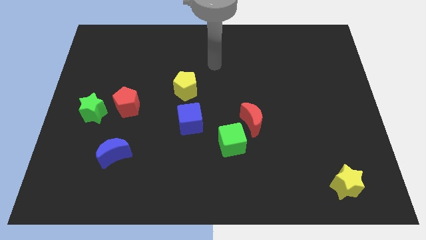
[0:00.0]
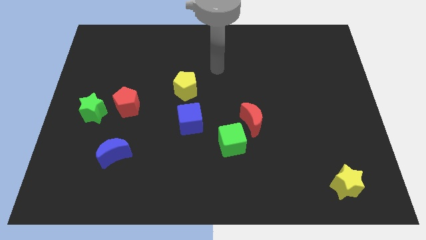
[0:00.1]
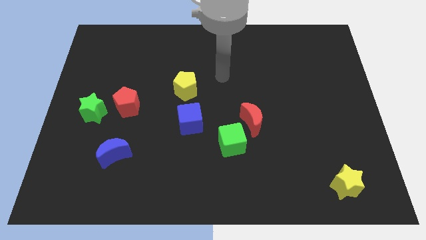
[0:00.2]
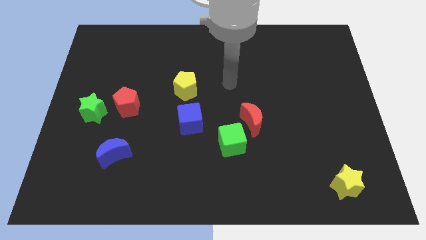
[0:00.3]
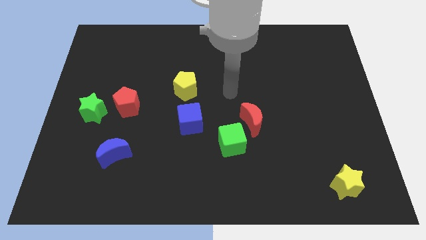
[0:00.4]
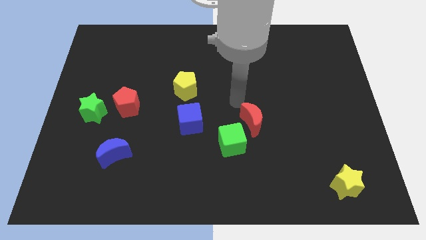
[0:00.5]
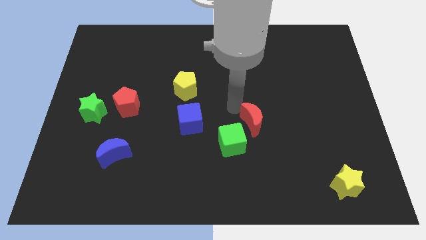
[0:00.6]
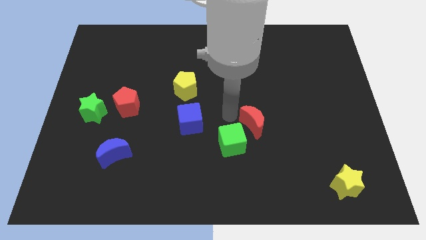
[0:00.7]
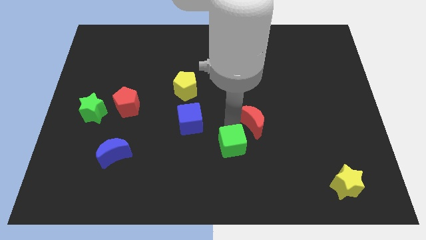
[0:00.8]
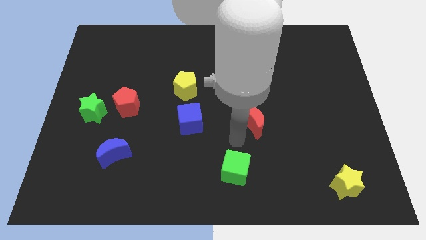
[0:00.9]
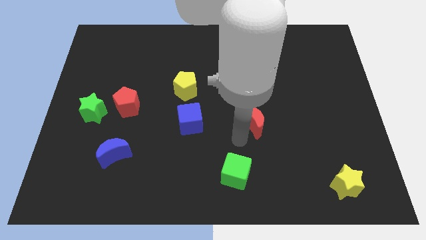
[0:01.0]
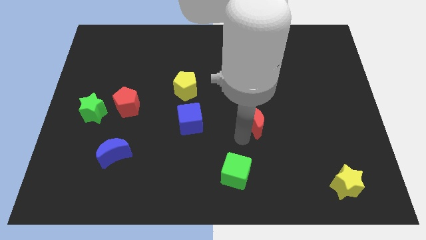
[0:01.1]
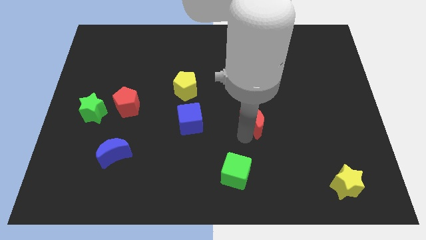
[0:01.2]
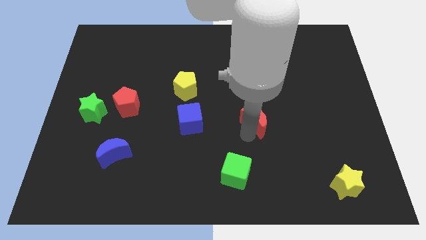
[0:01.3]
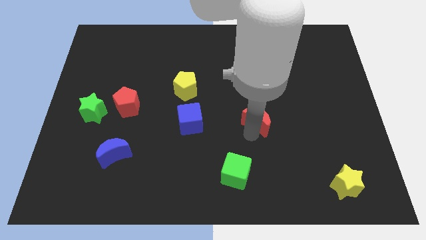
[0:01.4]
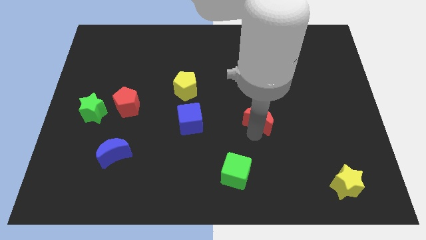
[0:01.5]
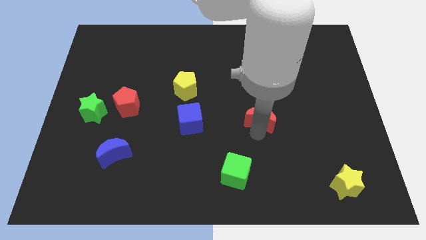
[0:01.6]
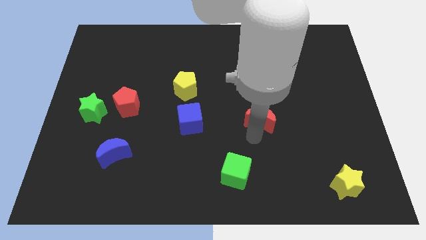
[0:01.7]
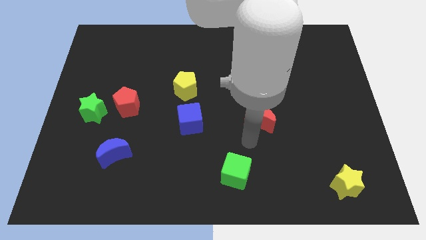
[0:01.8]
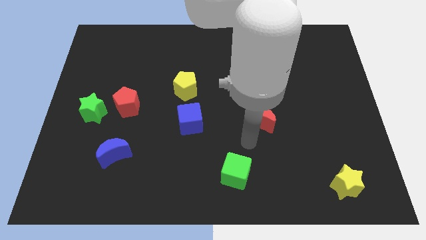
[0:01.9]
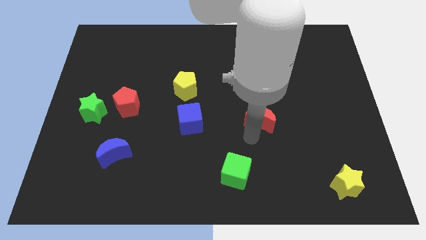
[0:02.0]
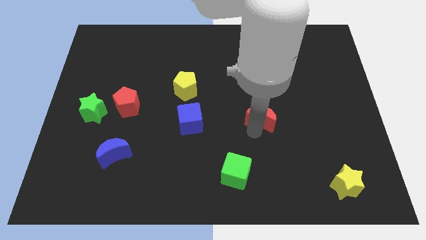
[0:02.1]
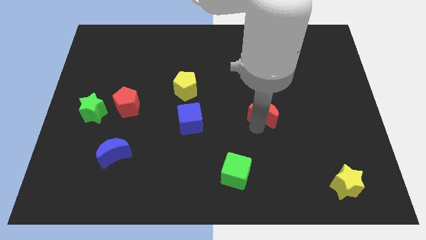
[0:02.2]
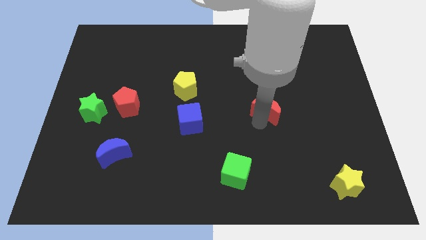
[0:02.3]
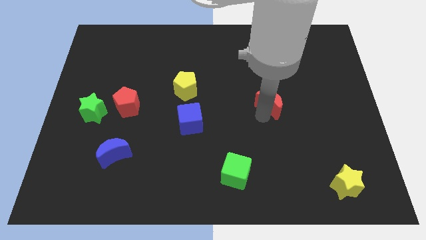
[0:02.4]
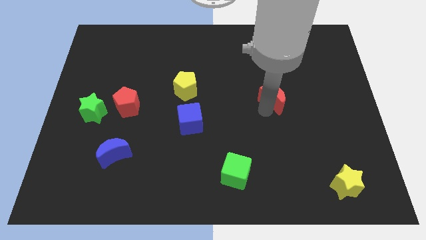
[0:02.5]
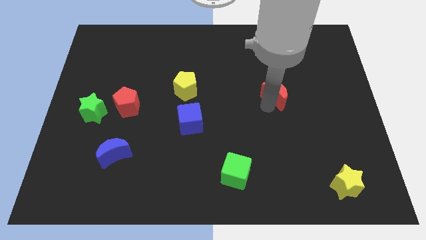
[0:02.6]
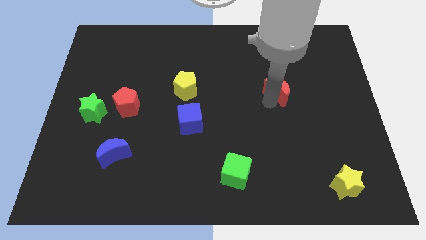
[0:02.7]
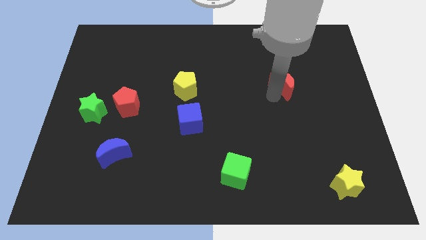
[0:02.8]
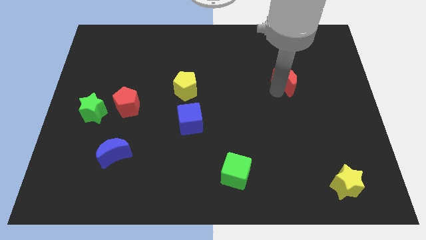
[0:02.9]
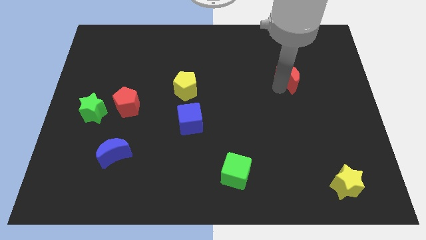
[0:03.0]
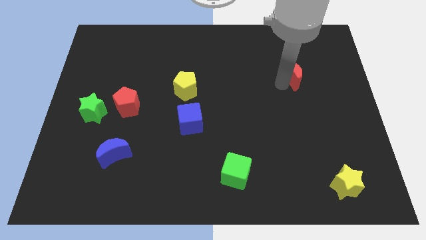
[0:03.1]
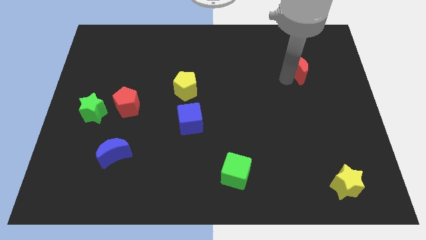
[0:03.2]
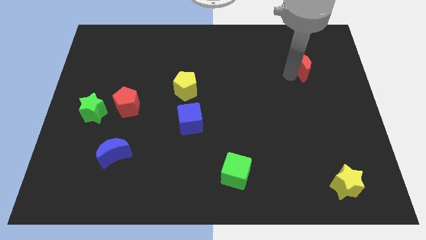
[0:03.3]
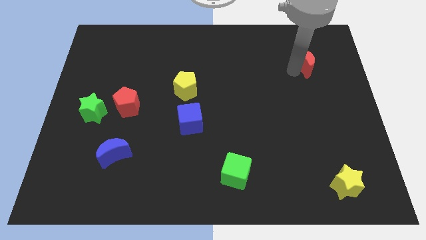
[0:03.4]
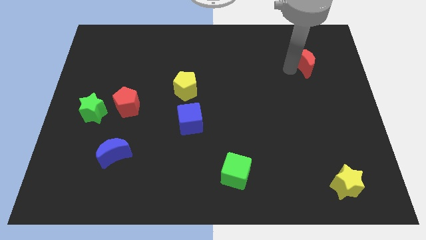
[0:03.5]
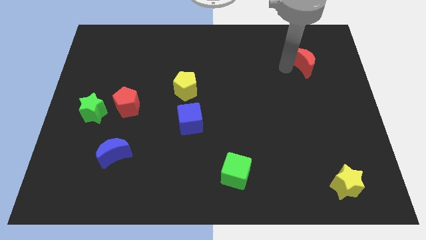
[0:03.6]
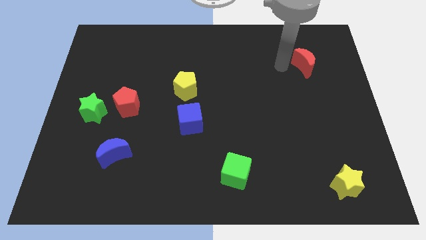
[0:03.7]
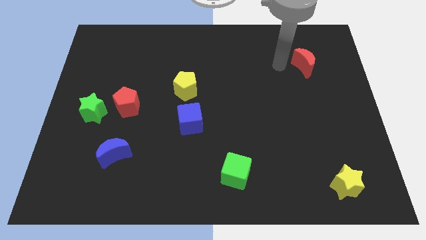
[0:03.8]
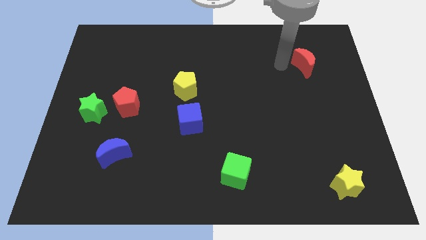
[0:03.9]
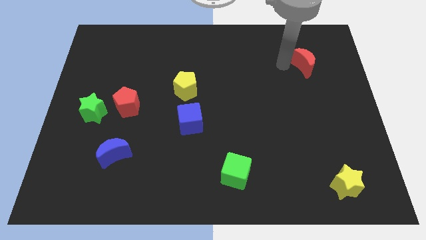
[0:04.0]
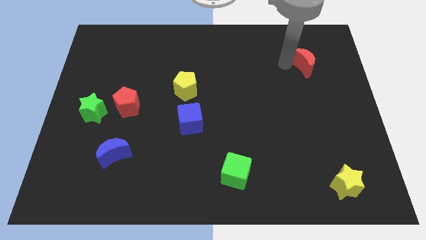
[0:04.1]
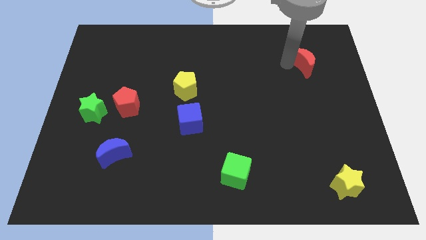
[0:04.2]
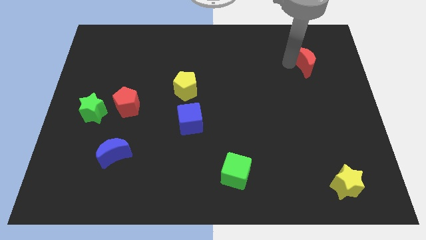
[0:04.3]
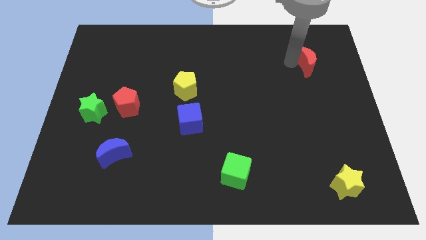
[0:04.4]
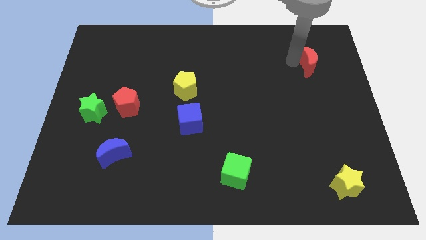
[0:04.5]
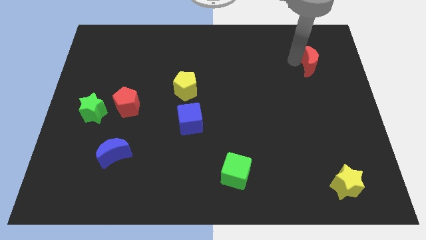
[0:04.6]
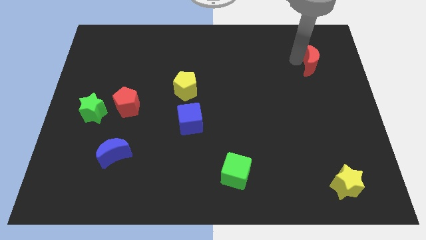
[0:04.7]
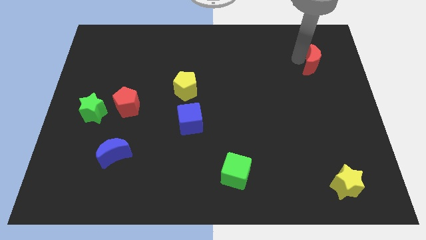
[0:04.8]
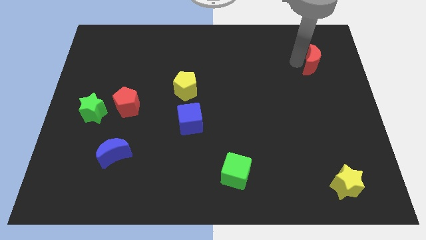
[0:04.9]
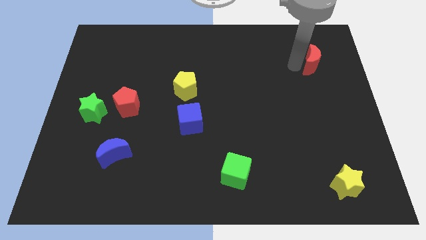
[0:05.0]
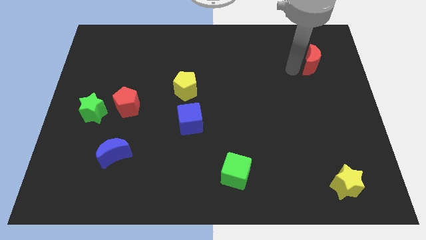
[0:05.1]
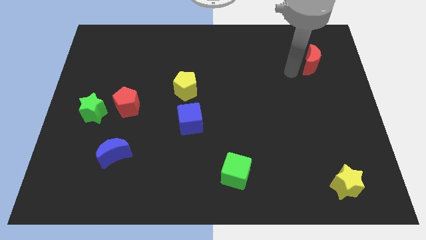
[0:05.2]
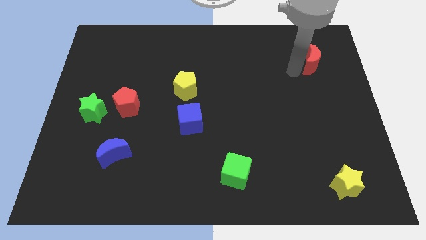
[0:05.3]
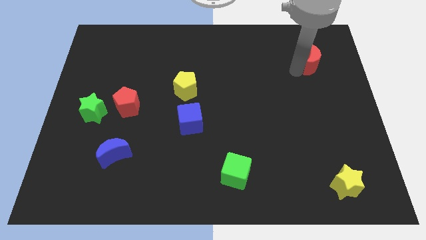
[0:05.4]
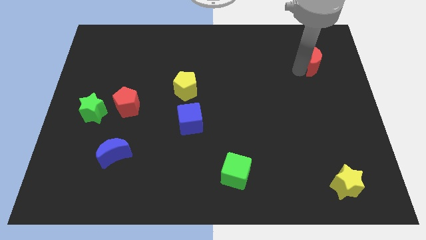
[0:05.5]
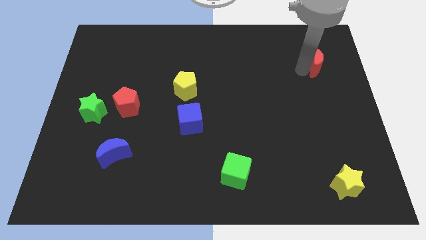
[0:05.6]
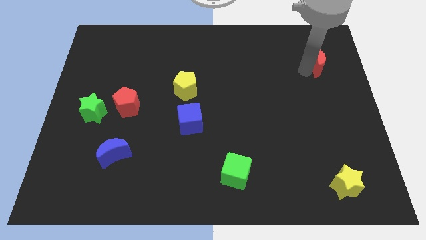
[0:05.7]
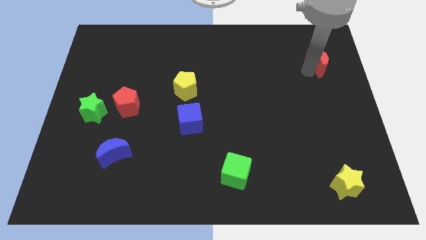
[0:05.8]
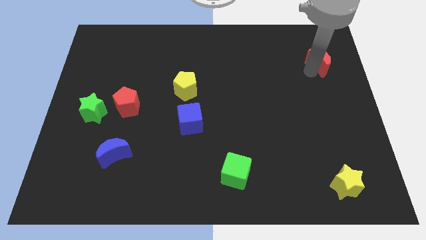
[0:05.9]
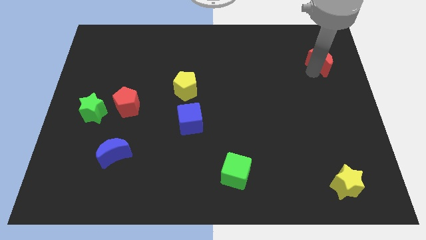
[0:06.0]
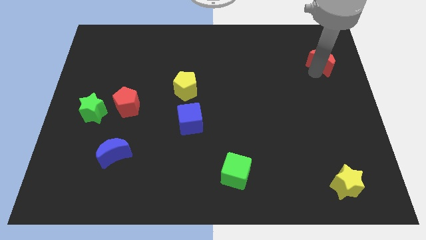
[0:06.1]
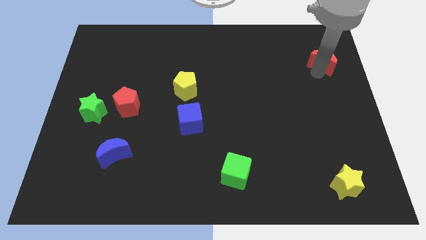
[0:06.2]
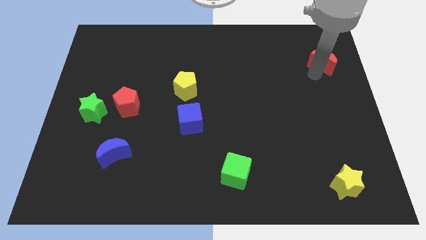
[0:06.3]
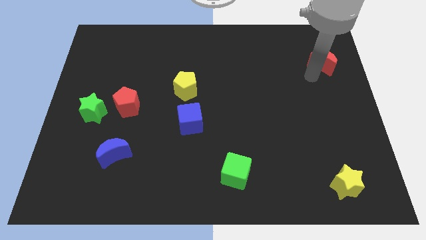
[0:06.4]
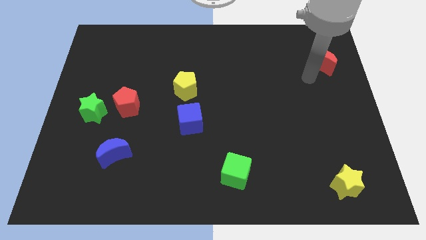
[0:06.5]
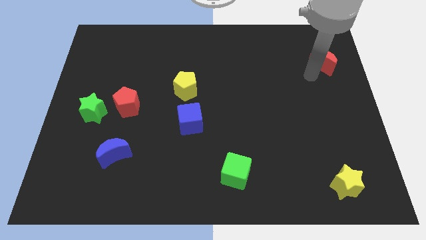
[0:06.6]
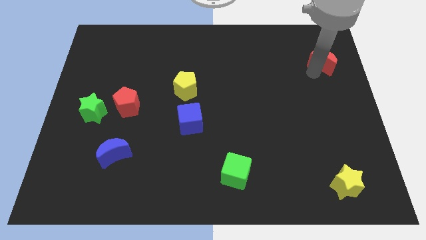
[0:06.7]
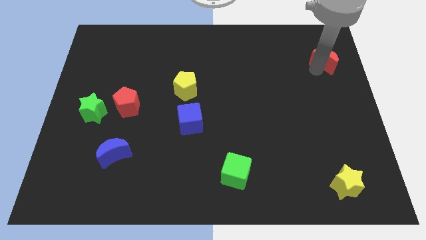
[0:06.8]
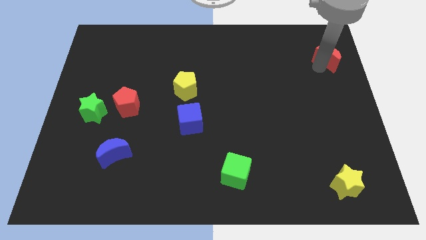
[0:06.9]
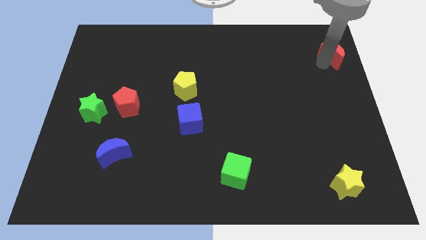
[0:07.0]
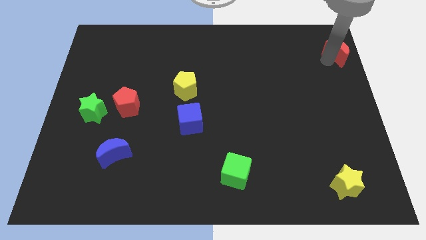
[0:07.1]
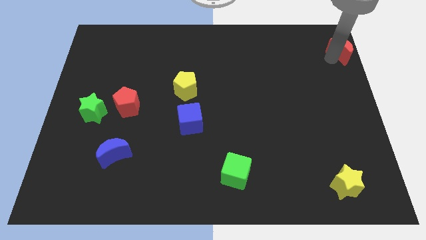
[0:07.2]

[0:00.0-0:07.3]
move the red moon to the top right corner
